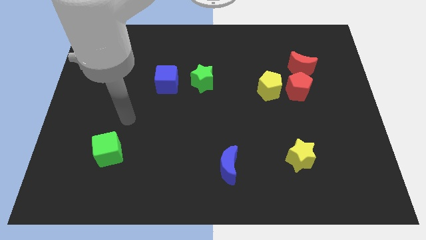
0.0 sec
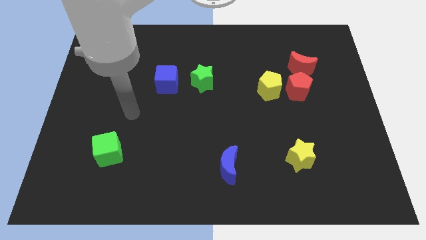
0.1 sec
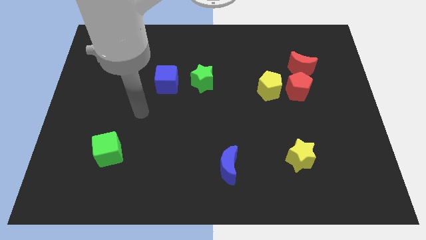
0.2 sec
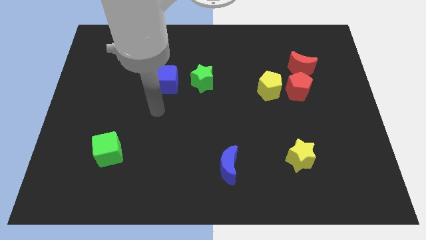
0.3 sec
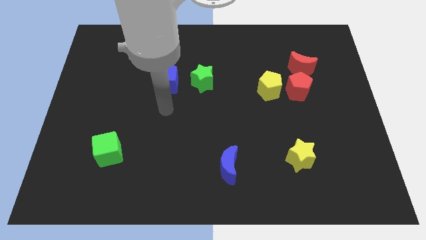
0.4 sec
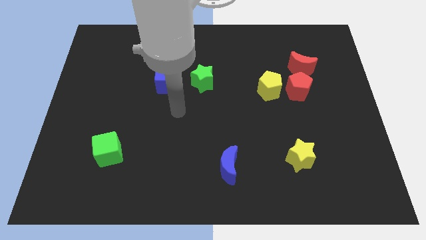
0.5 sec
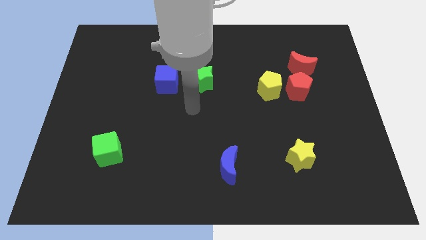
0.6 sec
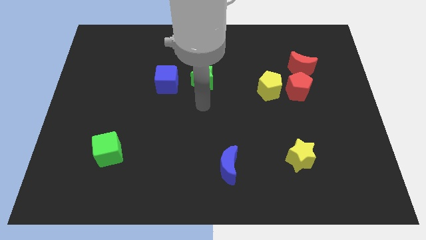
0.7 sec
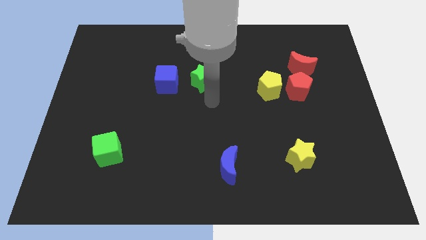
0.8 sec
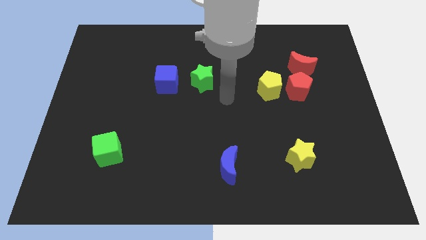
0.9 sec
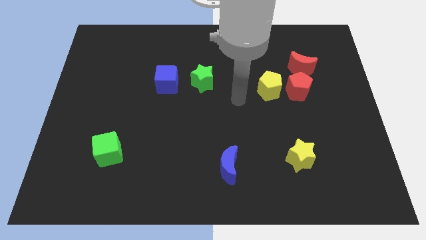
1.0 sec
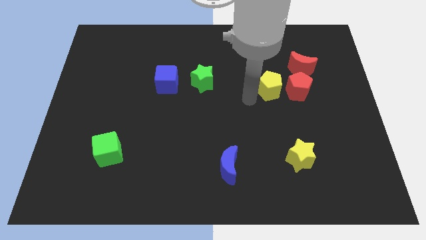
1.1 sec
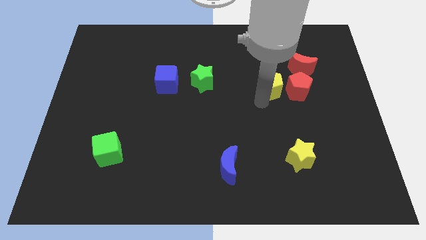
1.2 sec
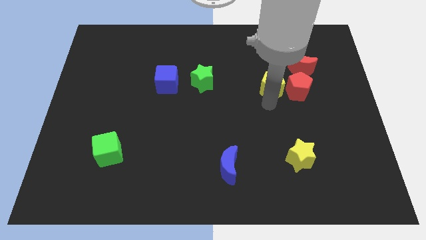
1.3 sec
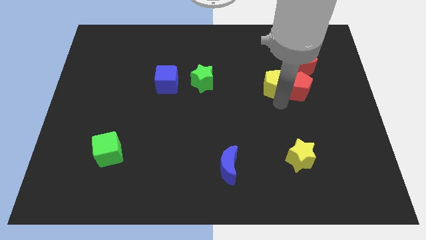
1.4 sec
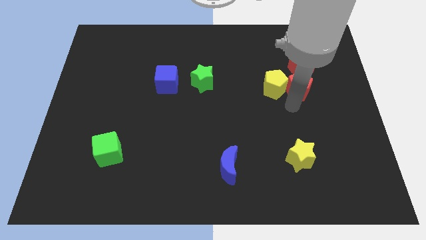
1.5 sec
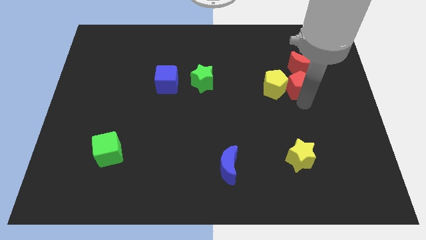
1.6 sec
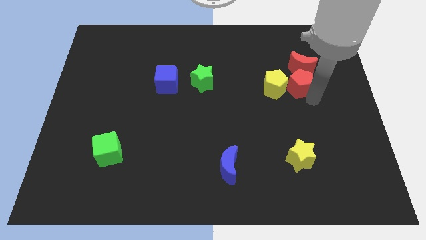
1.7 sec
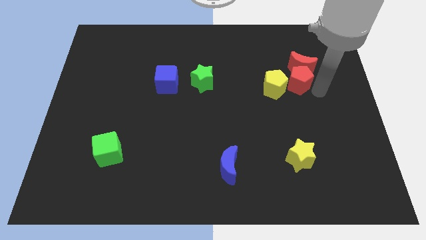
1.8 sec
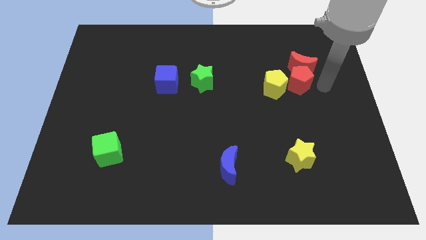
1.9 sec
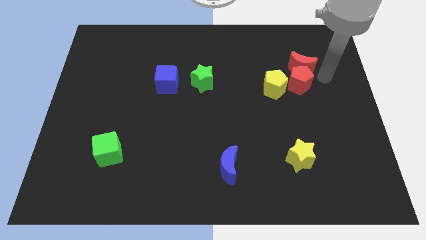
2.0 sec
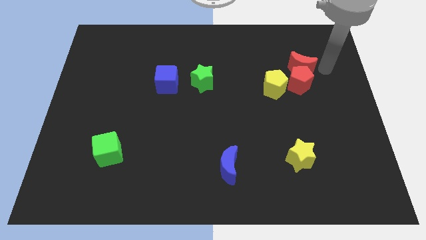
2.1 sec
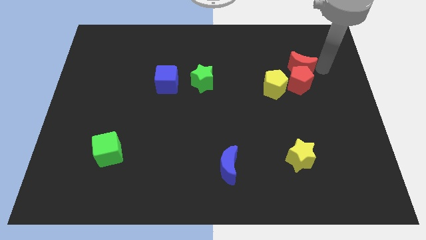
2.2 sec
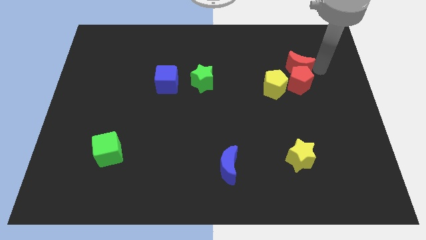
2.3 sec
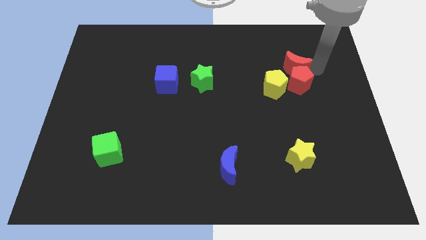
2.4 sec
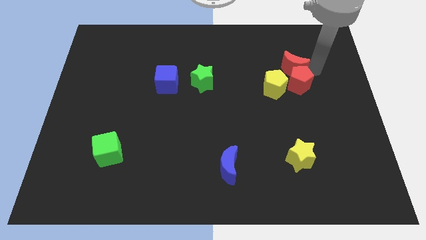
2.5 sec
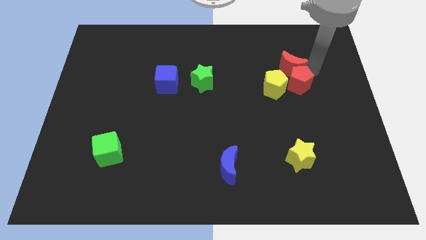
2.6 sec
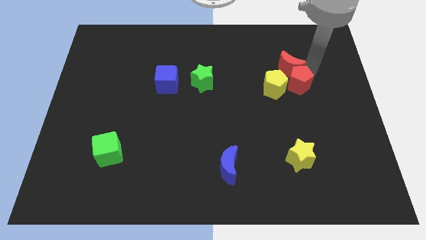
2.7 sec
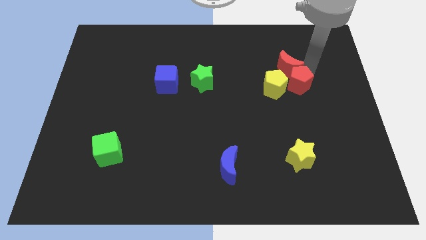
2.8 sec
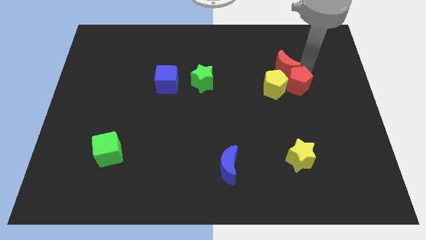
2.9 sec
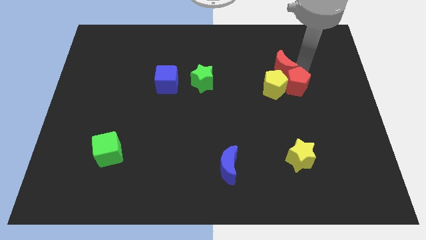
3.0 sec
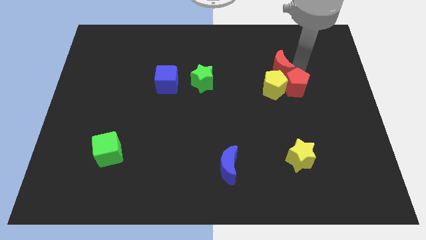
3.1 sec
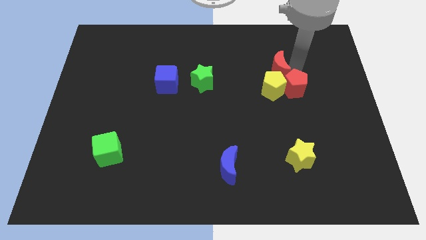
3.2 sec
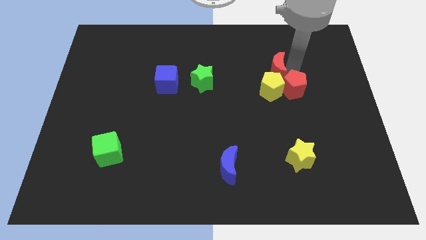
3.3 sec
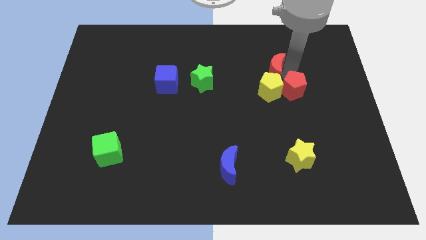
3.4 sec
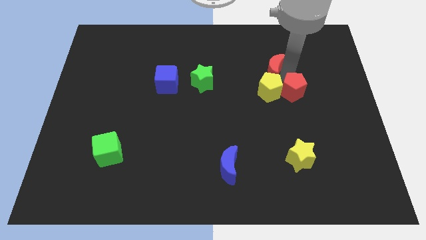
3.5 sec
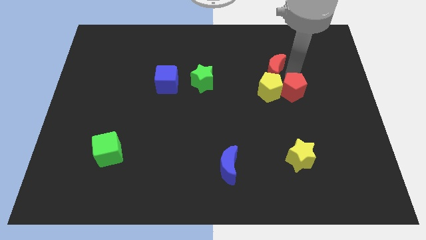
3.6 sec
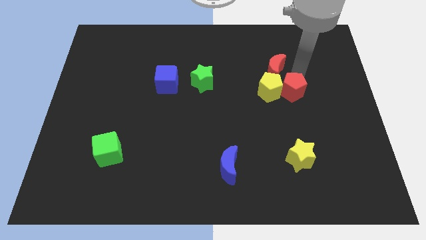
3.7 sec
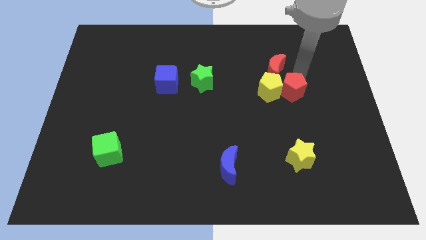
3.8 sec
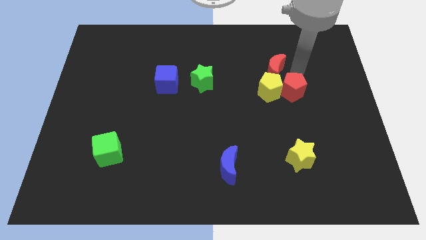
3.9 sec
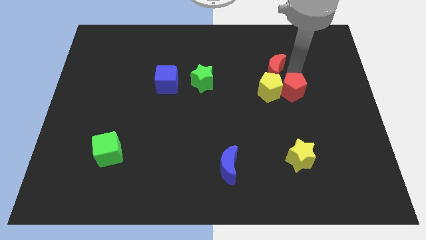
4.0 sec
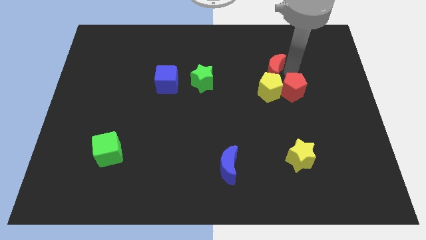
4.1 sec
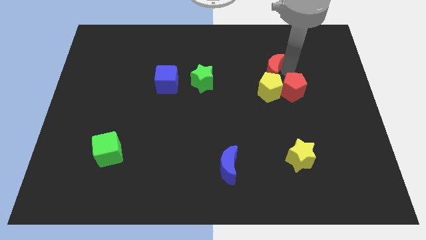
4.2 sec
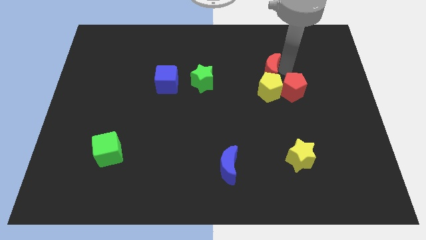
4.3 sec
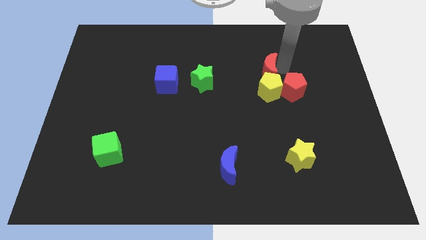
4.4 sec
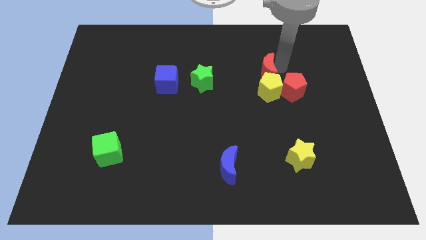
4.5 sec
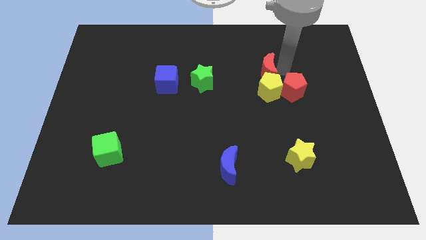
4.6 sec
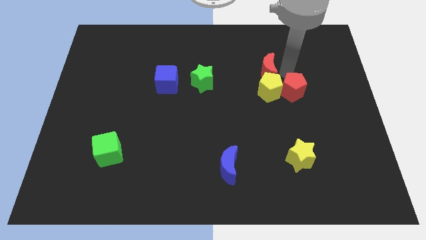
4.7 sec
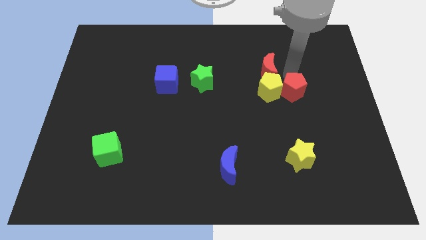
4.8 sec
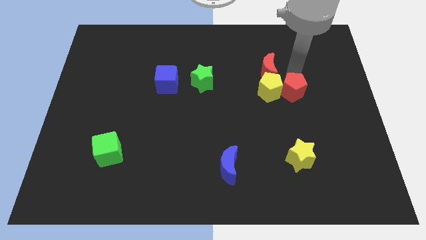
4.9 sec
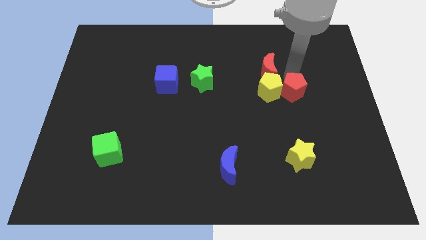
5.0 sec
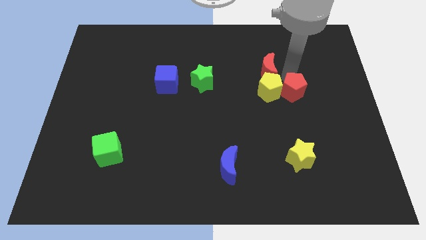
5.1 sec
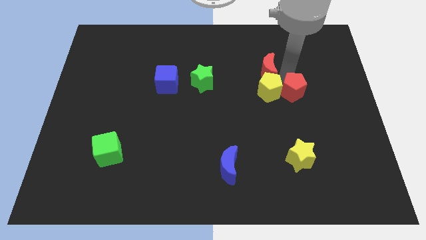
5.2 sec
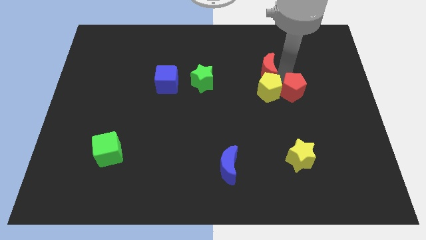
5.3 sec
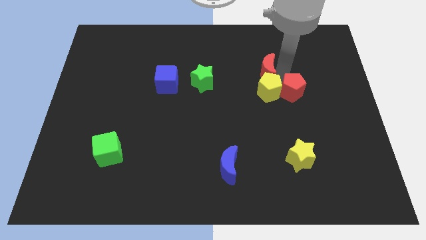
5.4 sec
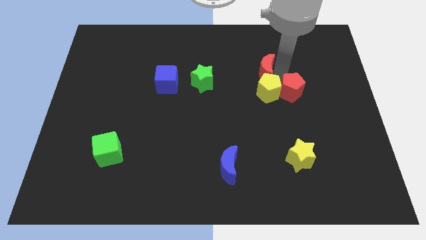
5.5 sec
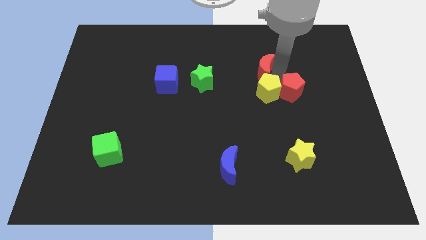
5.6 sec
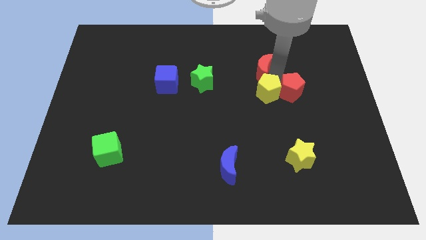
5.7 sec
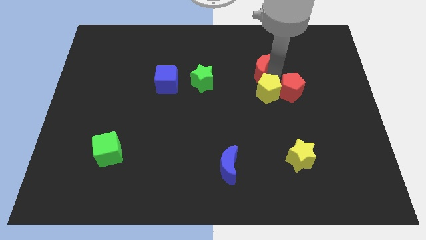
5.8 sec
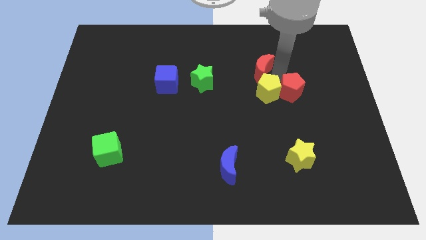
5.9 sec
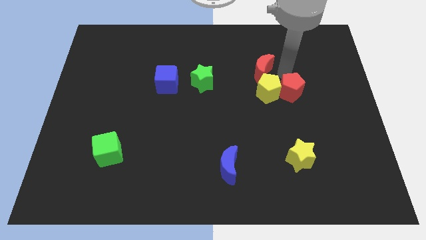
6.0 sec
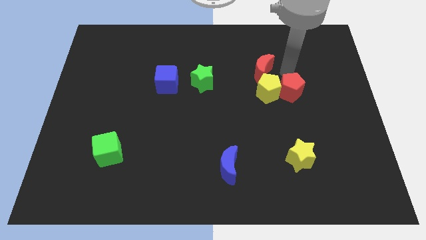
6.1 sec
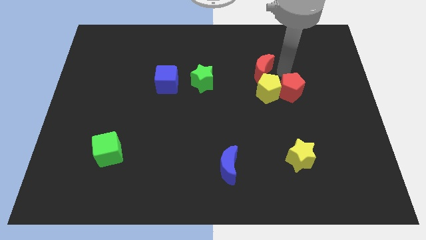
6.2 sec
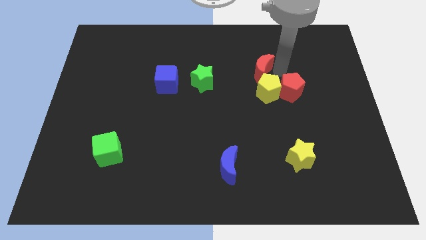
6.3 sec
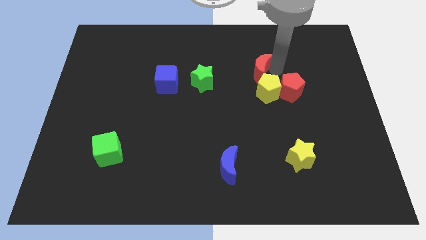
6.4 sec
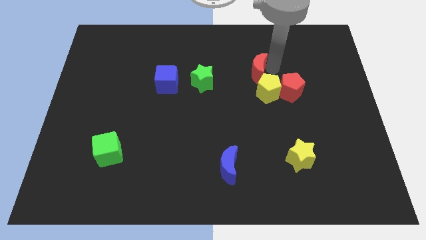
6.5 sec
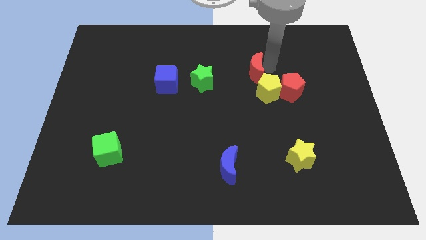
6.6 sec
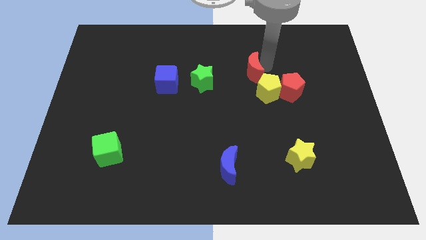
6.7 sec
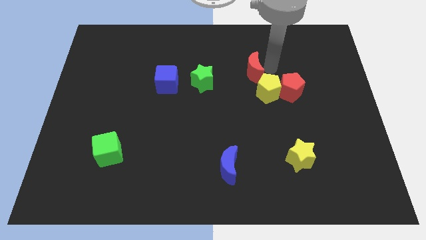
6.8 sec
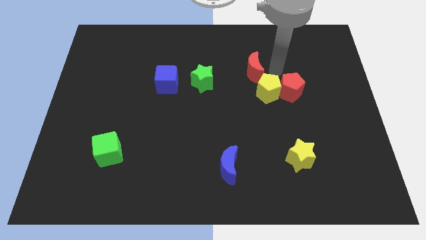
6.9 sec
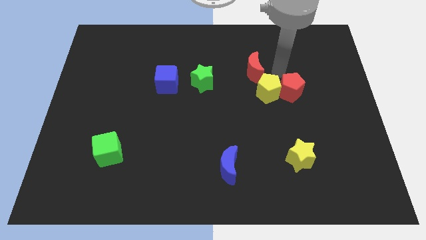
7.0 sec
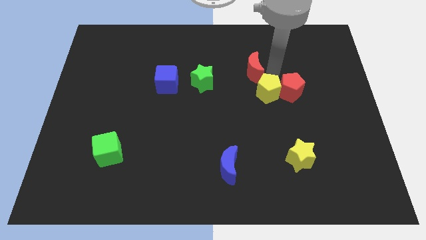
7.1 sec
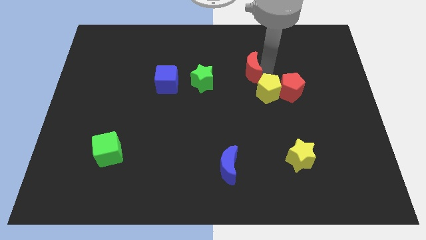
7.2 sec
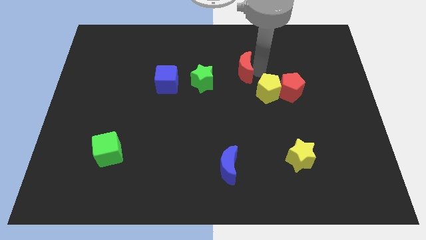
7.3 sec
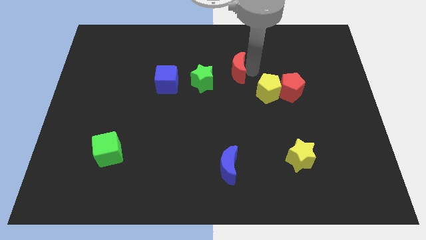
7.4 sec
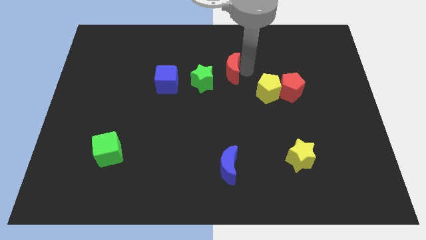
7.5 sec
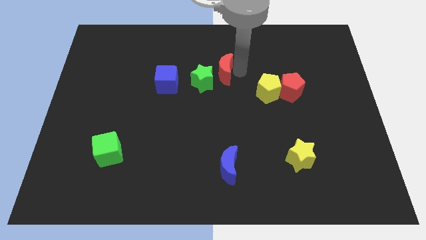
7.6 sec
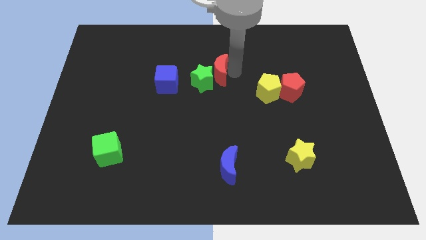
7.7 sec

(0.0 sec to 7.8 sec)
slide the red moon to the left

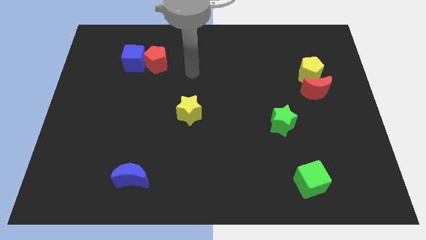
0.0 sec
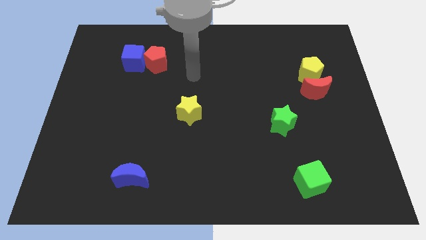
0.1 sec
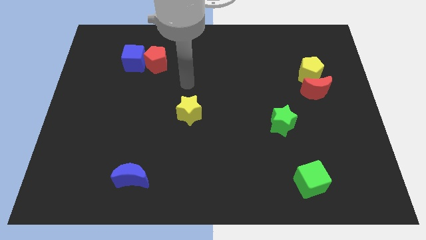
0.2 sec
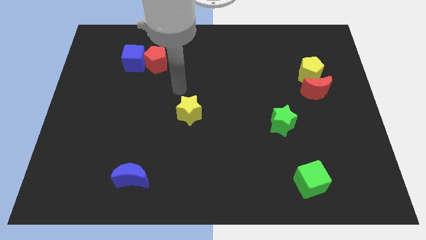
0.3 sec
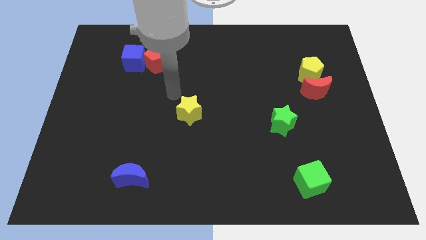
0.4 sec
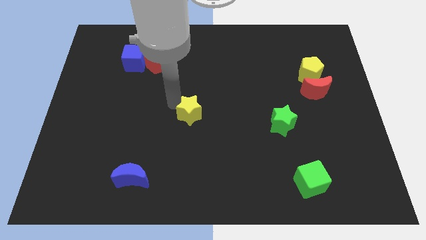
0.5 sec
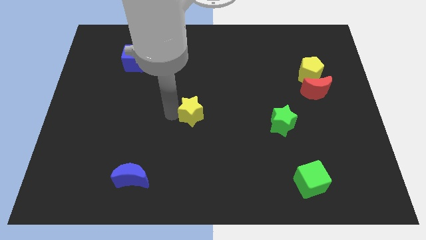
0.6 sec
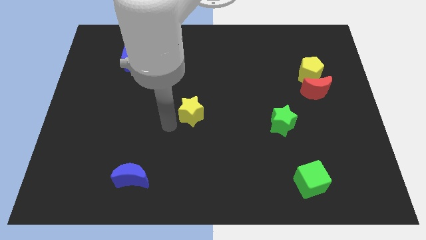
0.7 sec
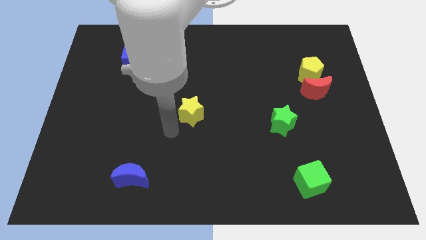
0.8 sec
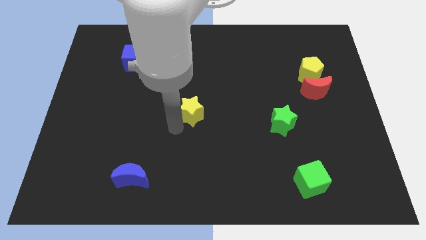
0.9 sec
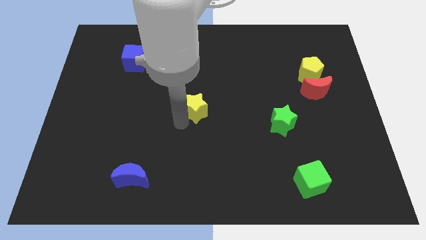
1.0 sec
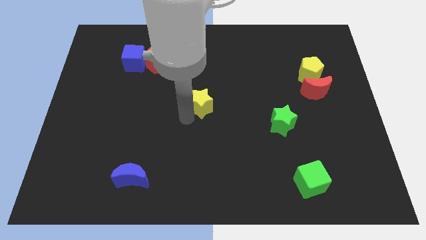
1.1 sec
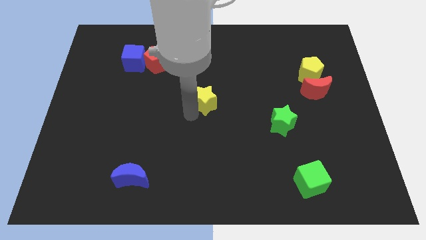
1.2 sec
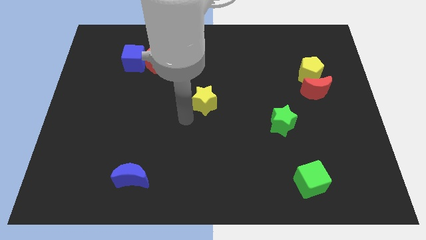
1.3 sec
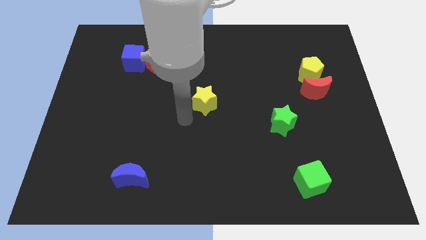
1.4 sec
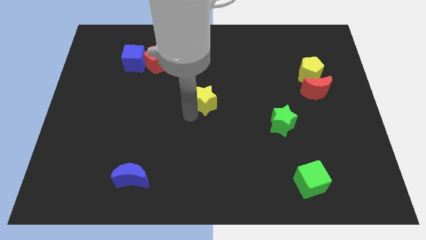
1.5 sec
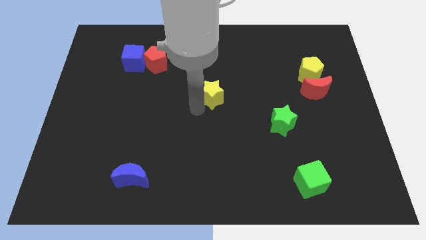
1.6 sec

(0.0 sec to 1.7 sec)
push the yellow star a little bit upwards and right
